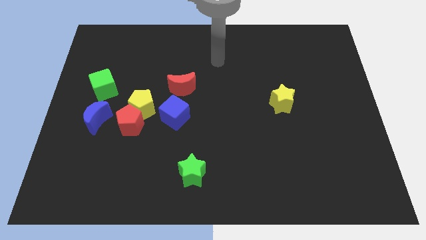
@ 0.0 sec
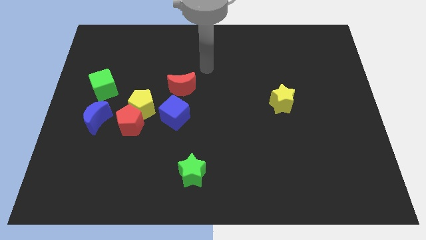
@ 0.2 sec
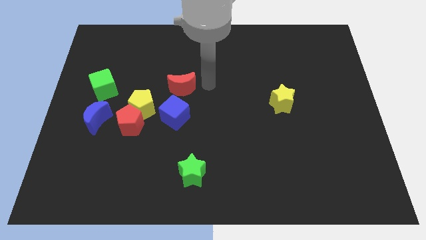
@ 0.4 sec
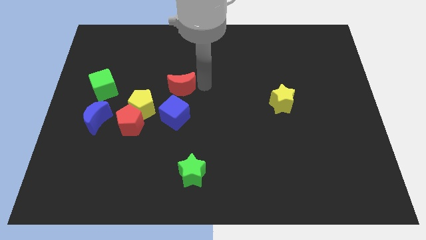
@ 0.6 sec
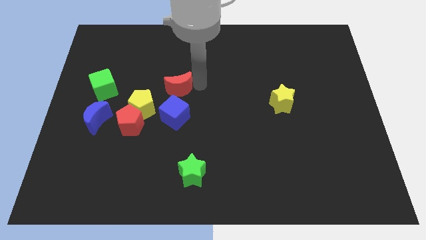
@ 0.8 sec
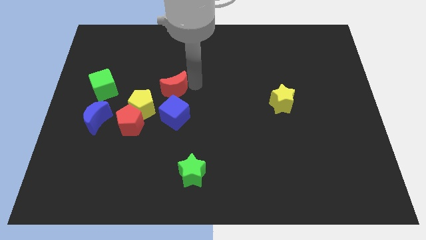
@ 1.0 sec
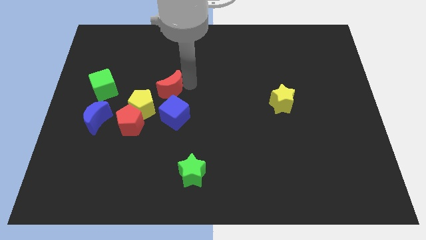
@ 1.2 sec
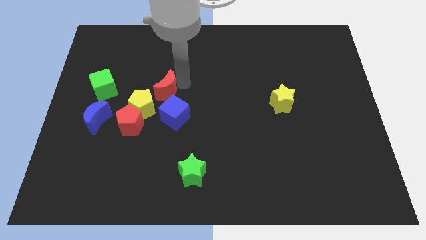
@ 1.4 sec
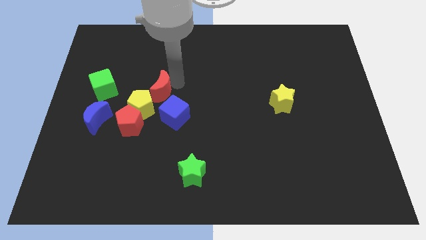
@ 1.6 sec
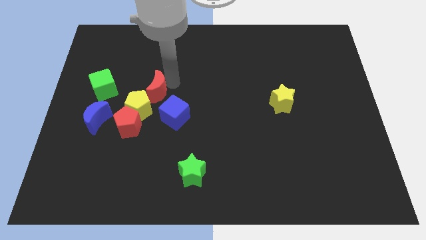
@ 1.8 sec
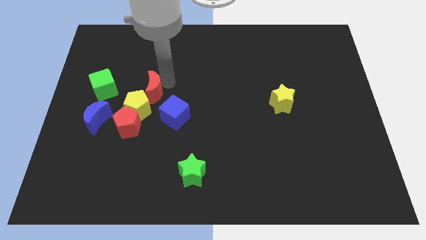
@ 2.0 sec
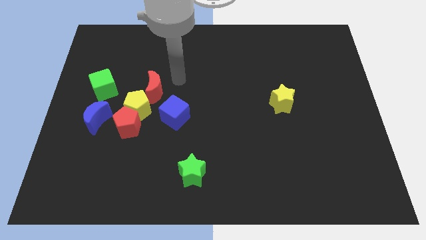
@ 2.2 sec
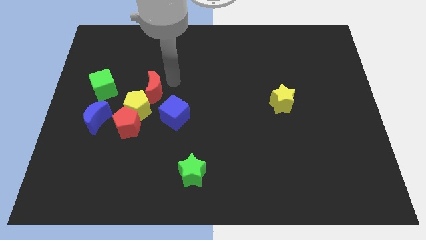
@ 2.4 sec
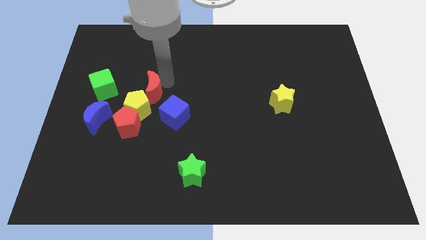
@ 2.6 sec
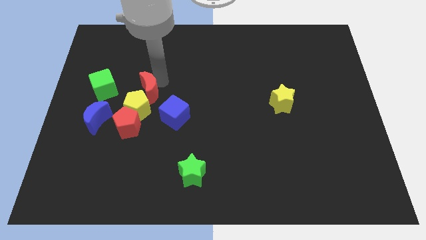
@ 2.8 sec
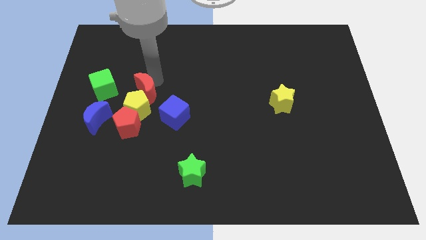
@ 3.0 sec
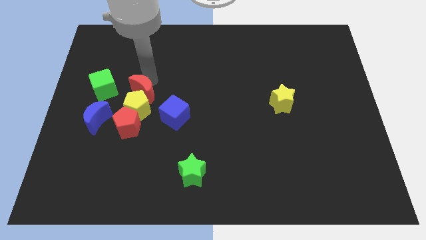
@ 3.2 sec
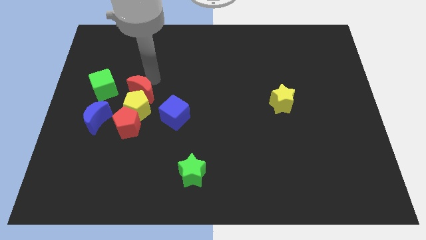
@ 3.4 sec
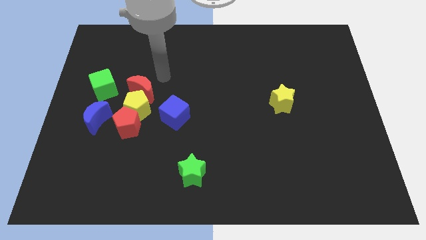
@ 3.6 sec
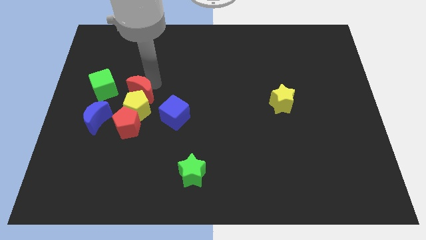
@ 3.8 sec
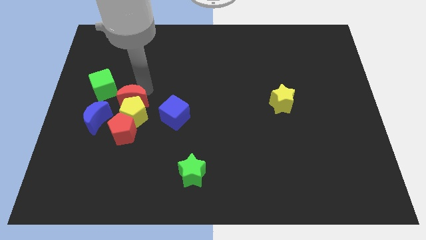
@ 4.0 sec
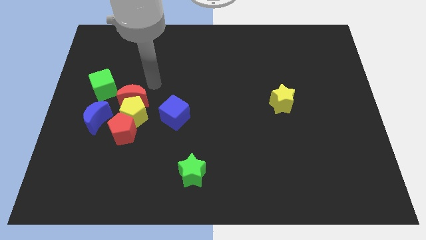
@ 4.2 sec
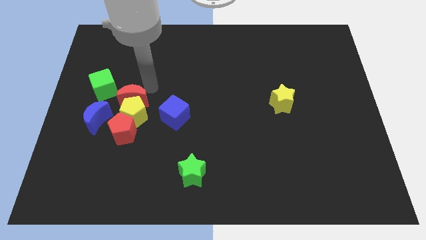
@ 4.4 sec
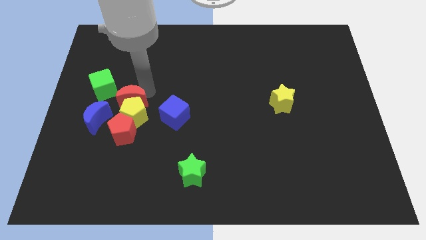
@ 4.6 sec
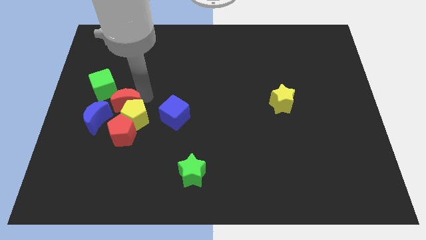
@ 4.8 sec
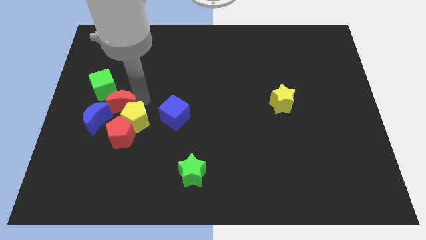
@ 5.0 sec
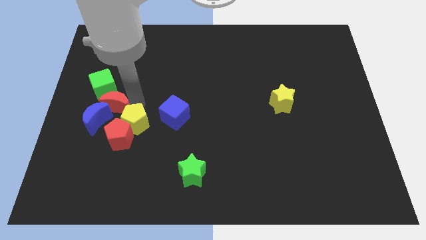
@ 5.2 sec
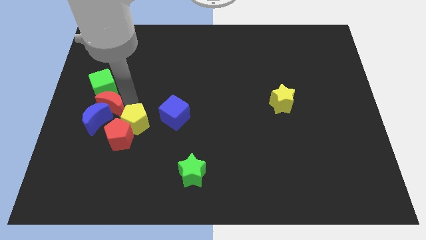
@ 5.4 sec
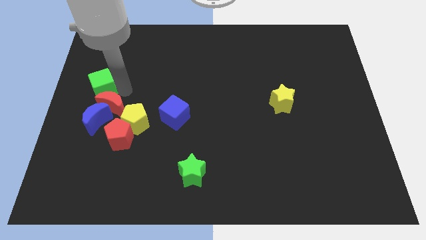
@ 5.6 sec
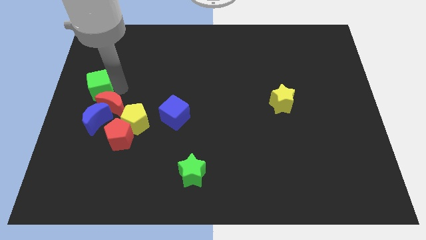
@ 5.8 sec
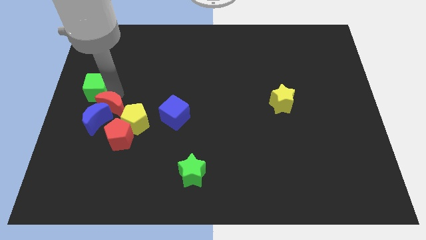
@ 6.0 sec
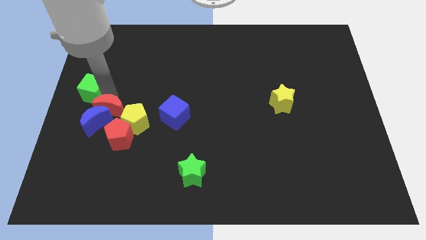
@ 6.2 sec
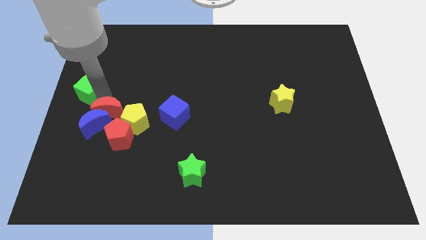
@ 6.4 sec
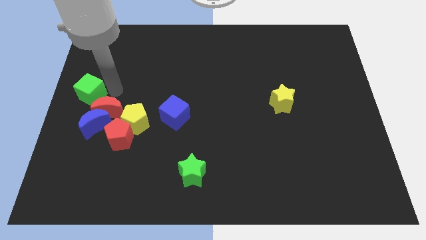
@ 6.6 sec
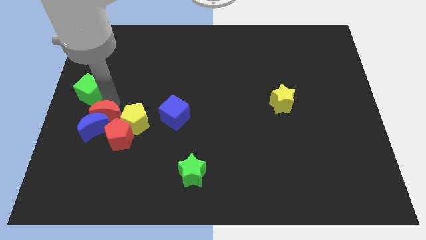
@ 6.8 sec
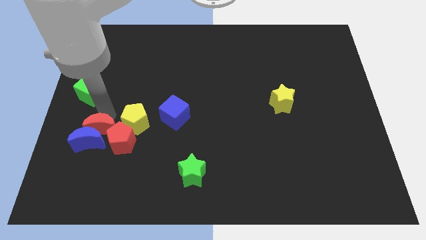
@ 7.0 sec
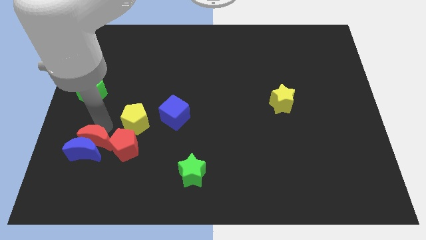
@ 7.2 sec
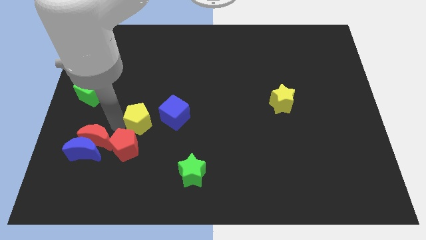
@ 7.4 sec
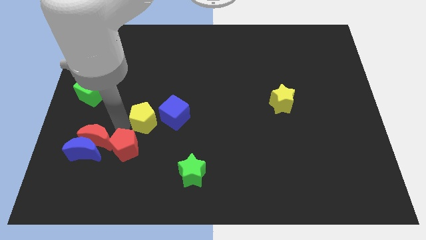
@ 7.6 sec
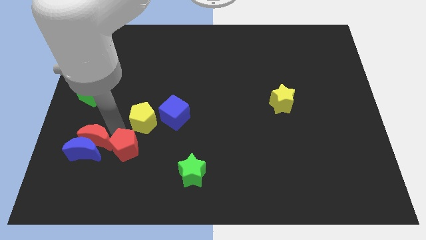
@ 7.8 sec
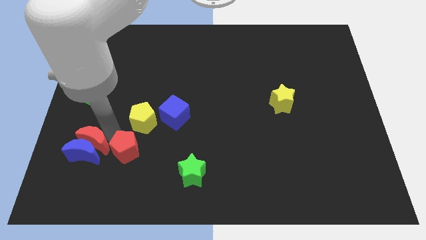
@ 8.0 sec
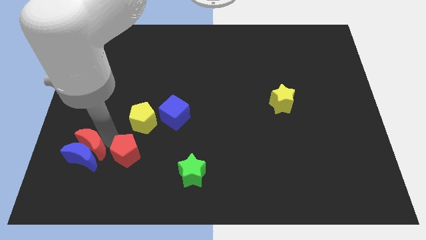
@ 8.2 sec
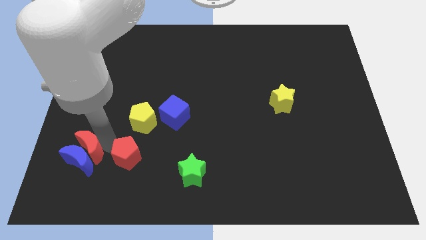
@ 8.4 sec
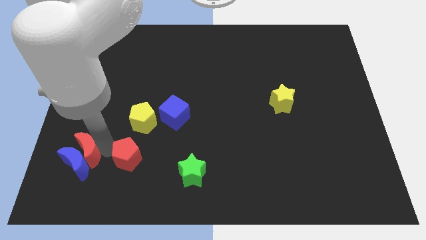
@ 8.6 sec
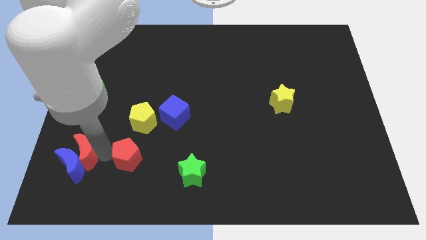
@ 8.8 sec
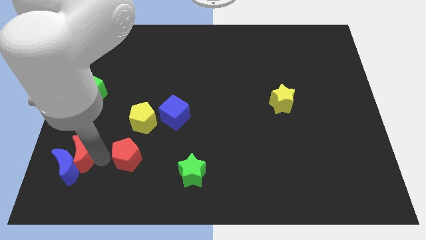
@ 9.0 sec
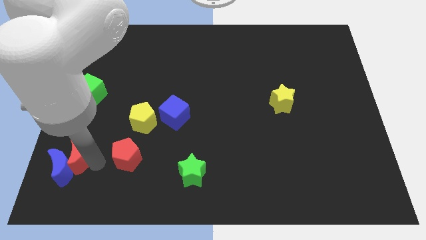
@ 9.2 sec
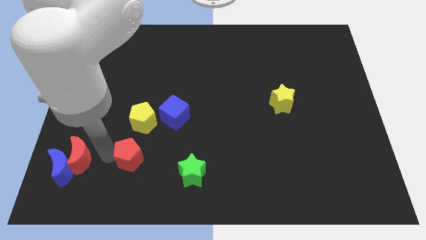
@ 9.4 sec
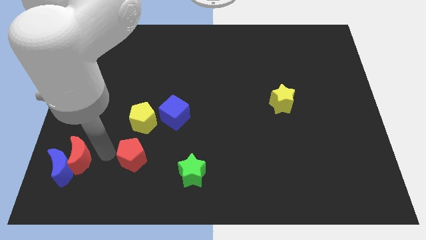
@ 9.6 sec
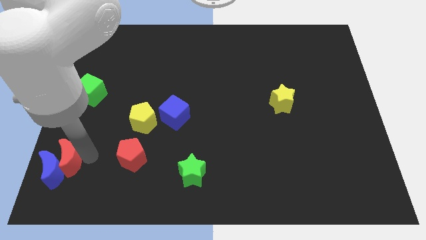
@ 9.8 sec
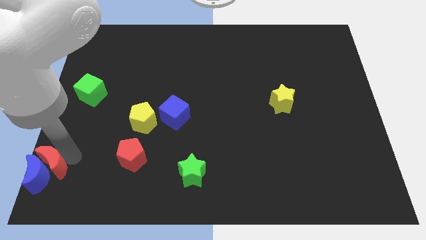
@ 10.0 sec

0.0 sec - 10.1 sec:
push the red moon to the lower left corner

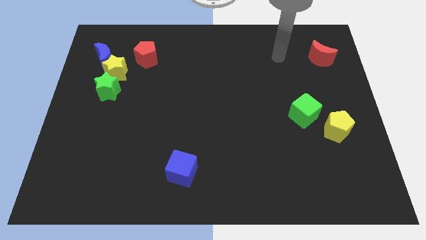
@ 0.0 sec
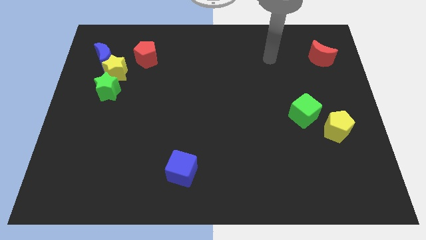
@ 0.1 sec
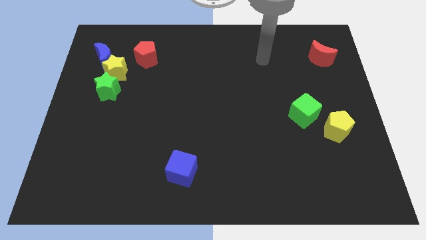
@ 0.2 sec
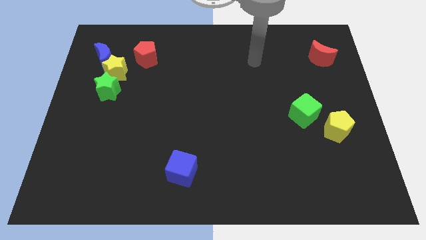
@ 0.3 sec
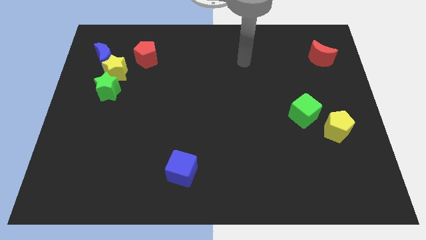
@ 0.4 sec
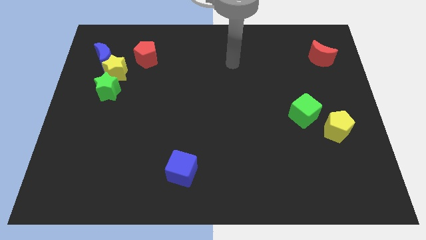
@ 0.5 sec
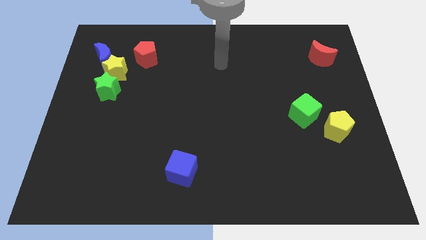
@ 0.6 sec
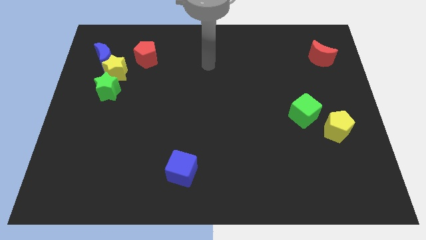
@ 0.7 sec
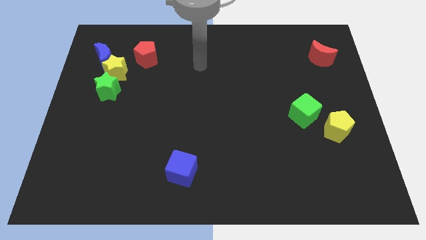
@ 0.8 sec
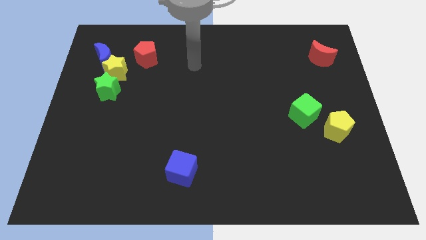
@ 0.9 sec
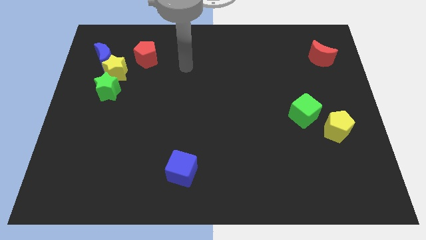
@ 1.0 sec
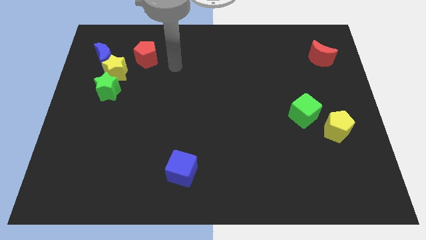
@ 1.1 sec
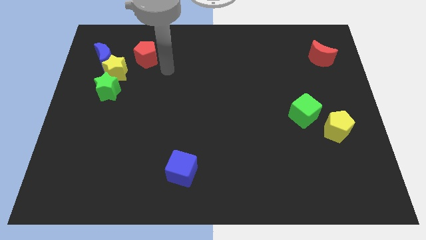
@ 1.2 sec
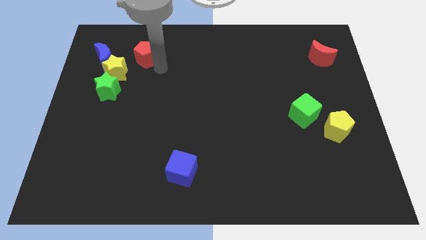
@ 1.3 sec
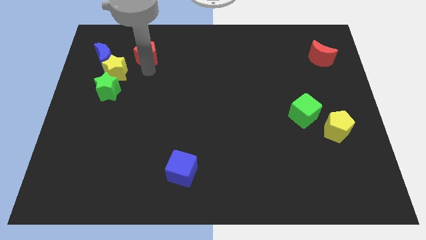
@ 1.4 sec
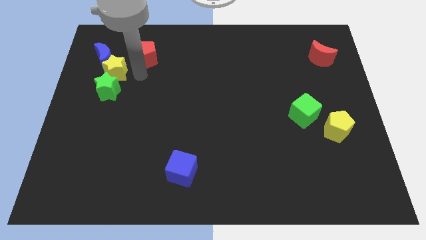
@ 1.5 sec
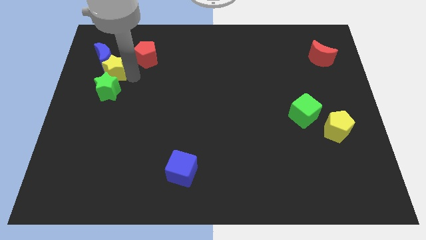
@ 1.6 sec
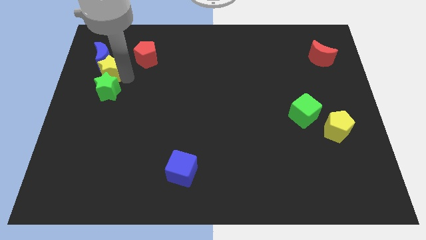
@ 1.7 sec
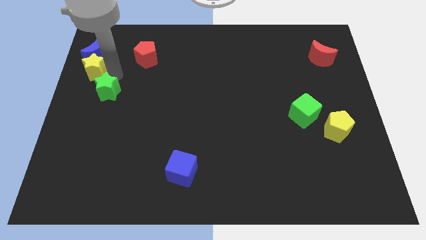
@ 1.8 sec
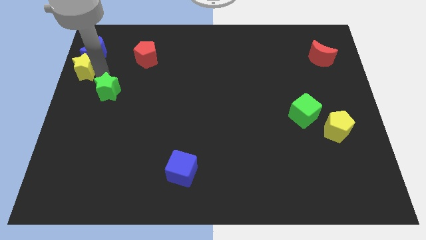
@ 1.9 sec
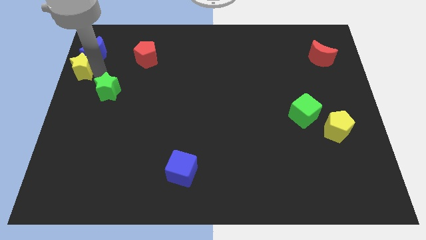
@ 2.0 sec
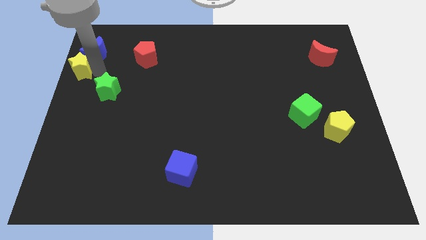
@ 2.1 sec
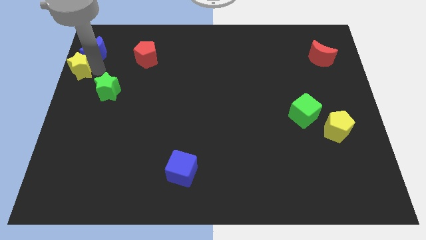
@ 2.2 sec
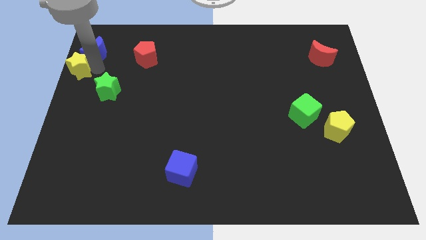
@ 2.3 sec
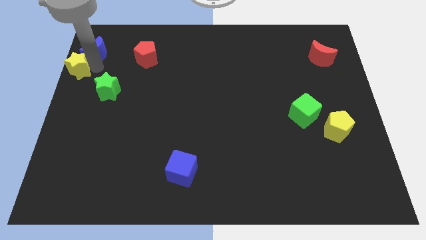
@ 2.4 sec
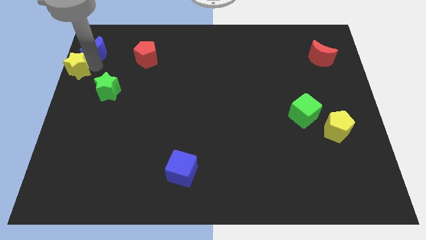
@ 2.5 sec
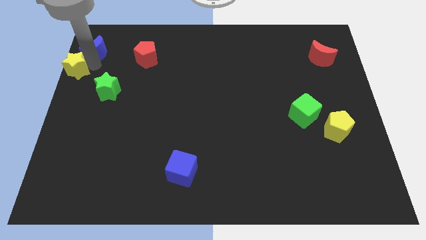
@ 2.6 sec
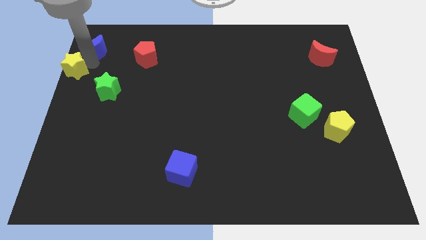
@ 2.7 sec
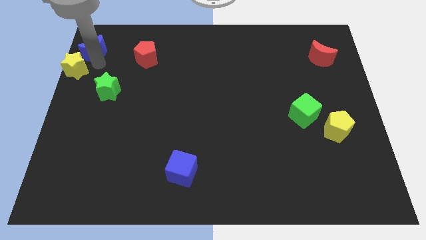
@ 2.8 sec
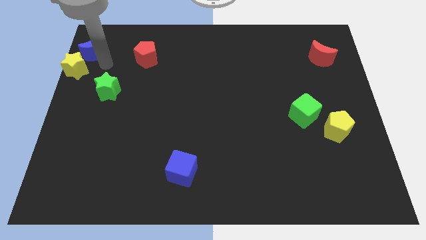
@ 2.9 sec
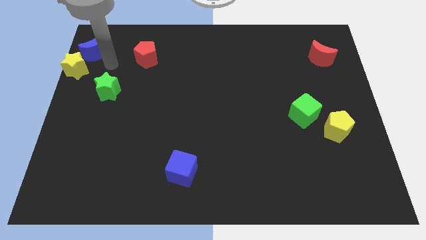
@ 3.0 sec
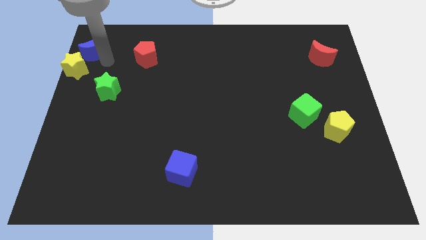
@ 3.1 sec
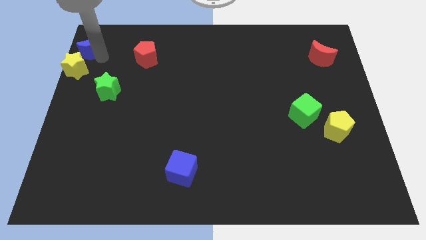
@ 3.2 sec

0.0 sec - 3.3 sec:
move the blue moon to the upper left corner
